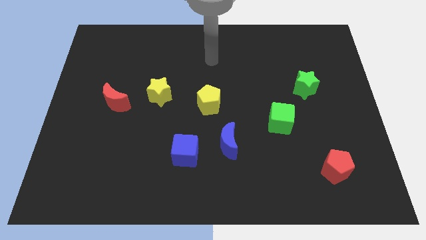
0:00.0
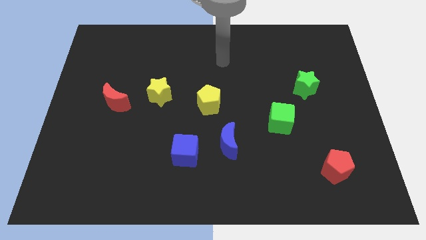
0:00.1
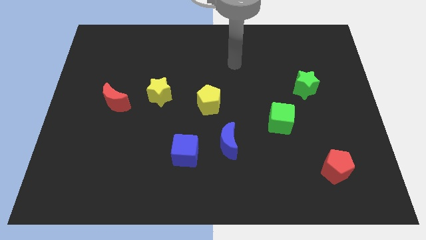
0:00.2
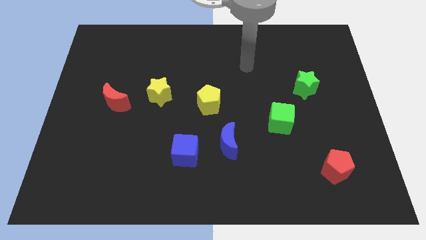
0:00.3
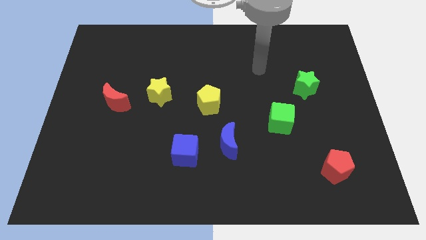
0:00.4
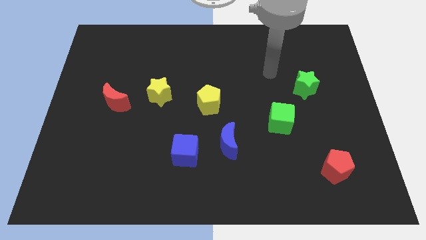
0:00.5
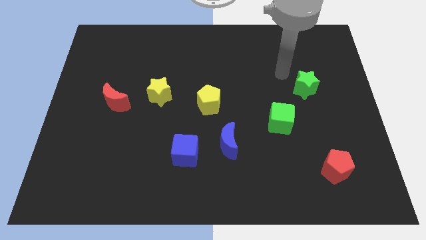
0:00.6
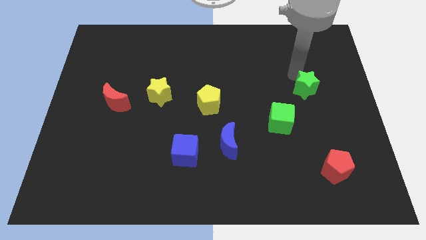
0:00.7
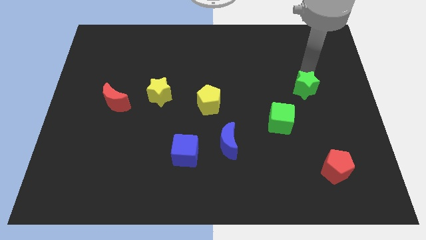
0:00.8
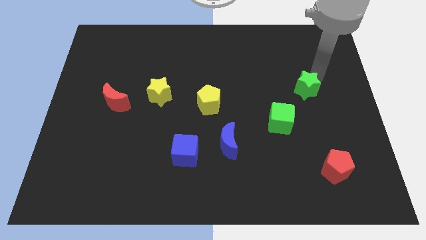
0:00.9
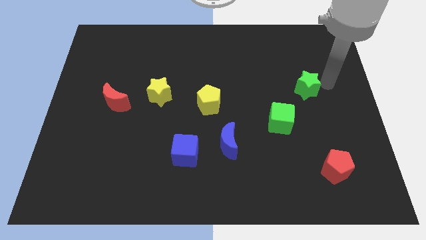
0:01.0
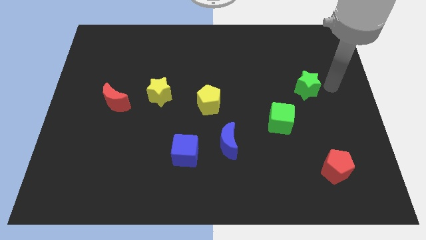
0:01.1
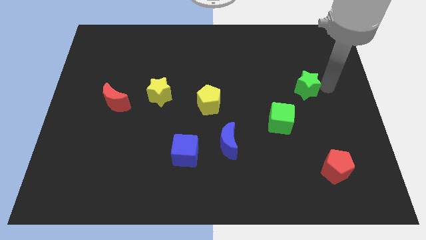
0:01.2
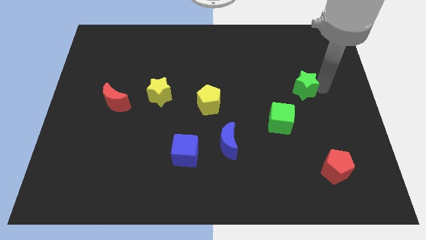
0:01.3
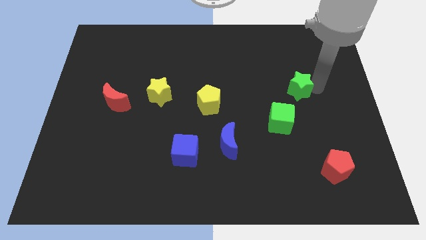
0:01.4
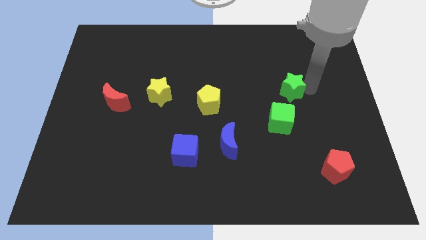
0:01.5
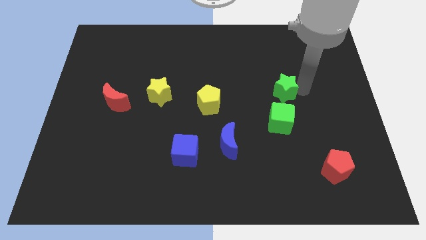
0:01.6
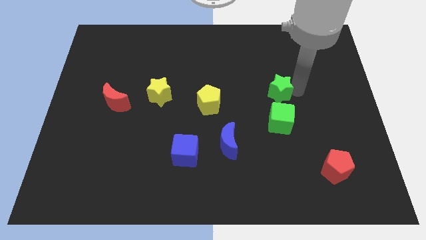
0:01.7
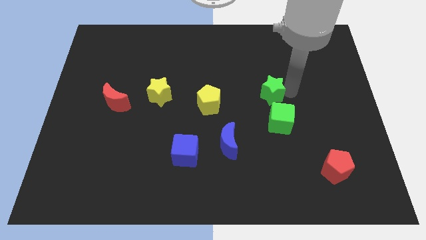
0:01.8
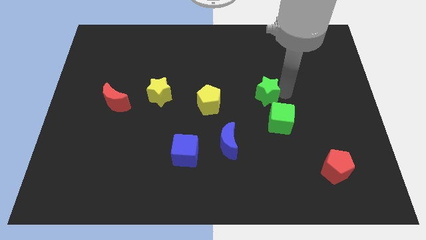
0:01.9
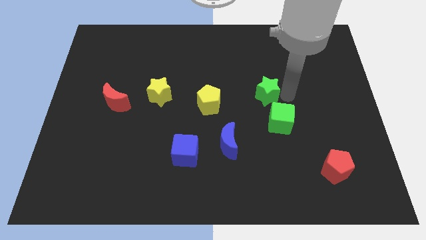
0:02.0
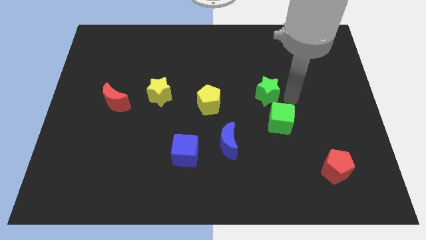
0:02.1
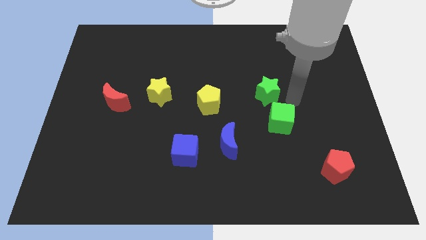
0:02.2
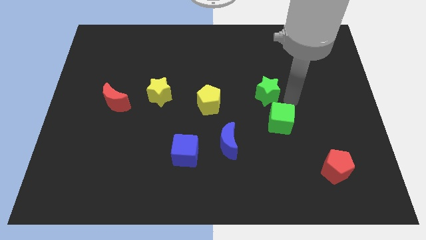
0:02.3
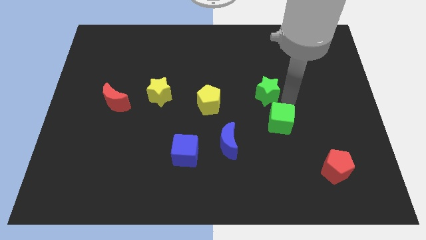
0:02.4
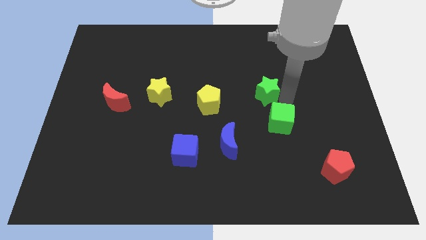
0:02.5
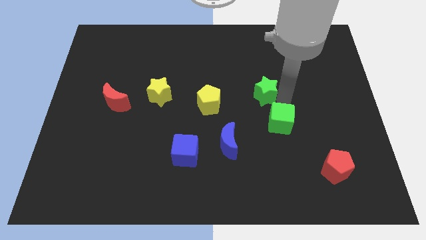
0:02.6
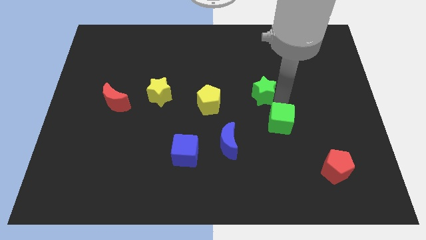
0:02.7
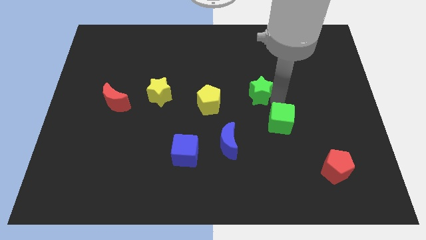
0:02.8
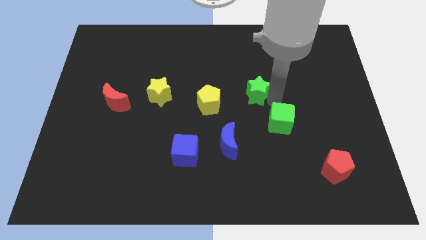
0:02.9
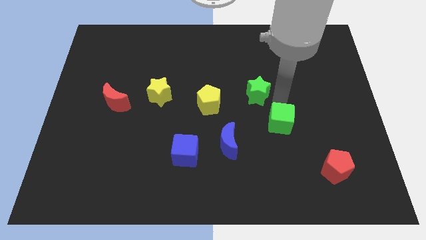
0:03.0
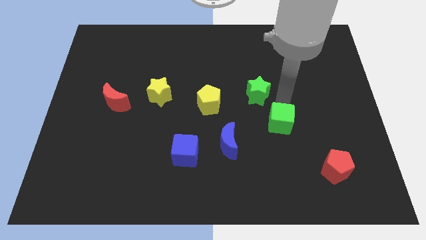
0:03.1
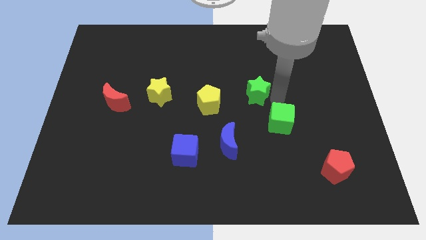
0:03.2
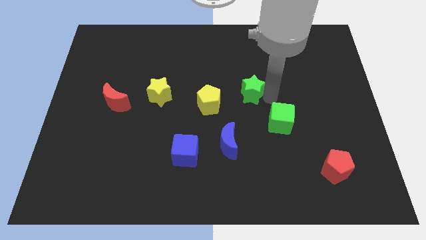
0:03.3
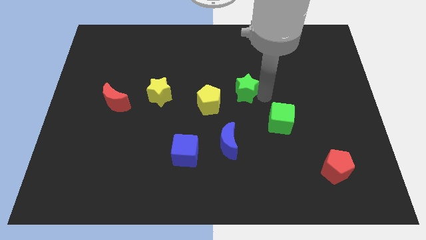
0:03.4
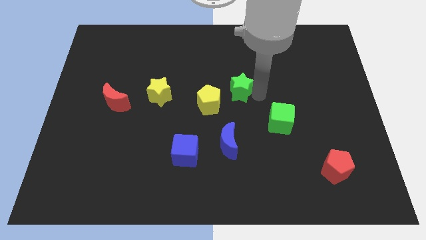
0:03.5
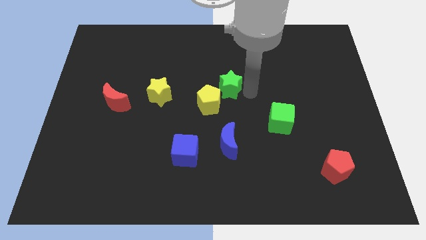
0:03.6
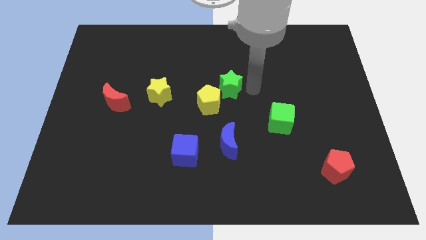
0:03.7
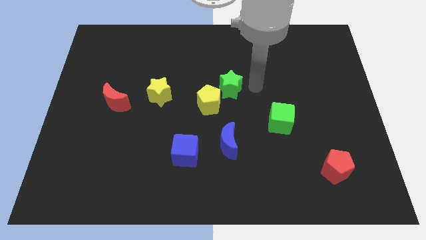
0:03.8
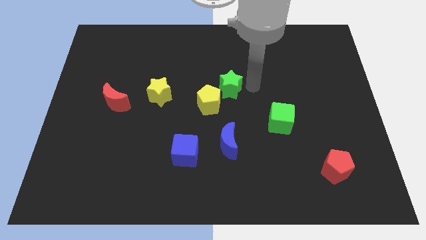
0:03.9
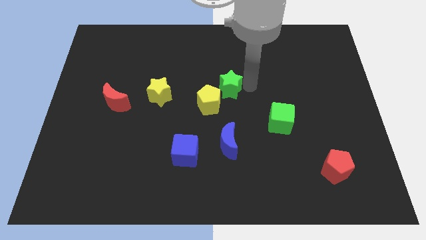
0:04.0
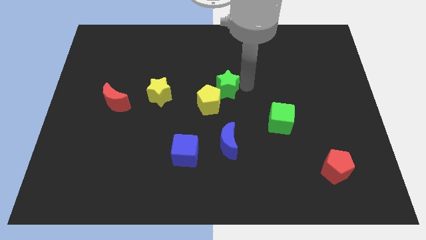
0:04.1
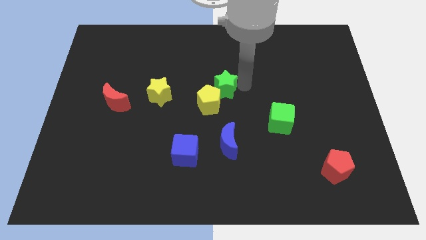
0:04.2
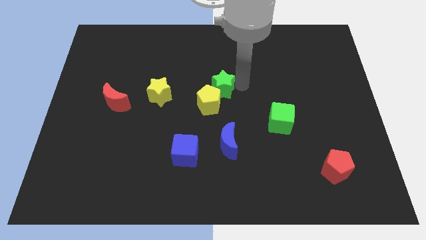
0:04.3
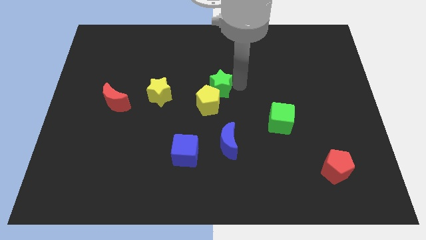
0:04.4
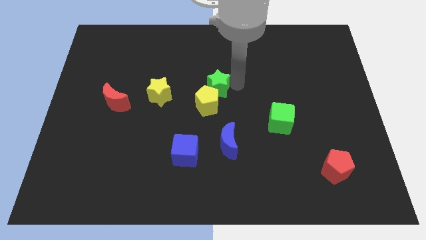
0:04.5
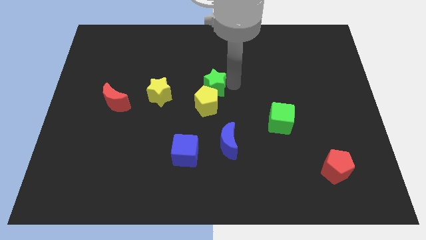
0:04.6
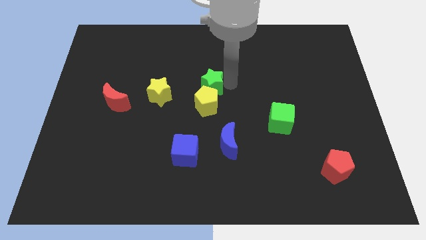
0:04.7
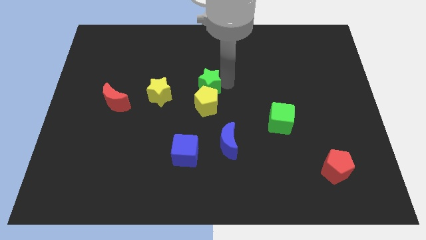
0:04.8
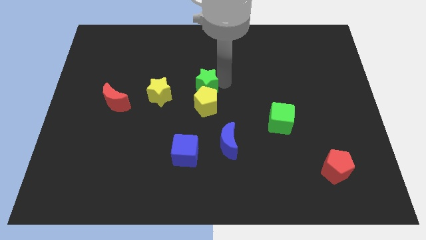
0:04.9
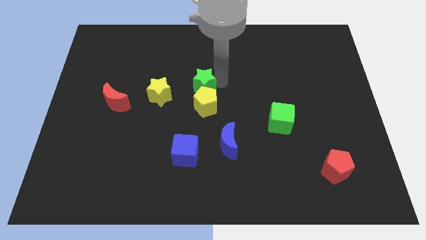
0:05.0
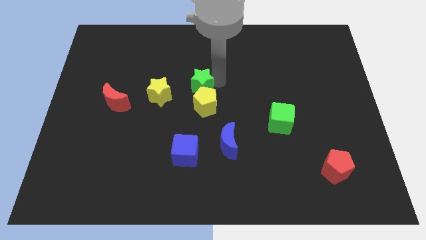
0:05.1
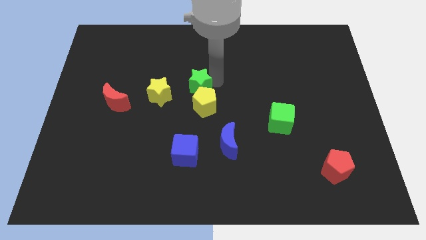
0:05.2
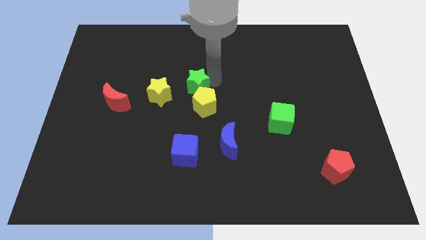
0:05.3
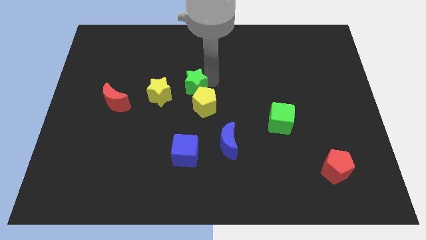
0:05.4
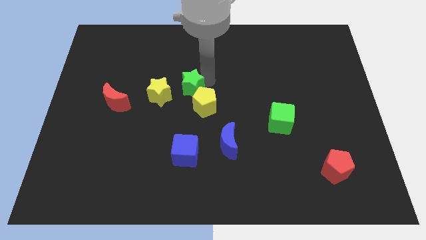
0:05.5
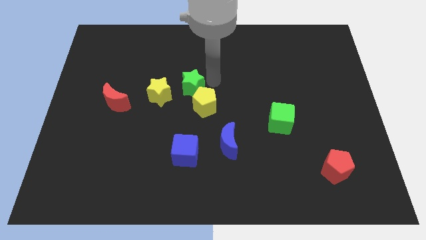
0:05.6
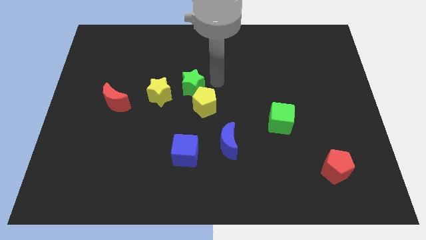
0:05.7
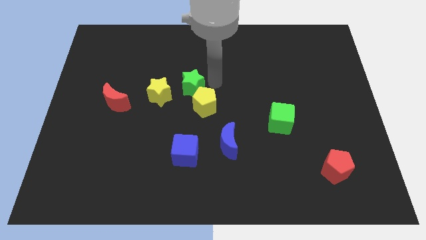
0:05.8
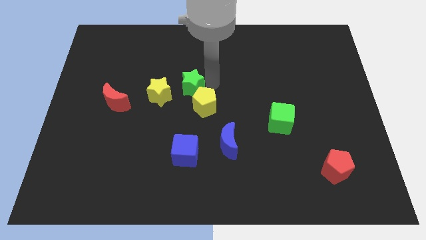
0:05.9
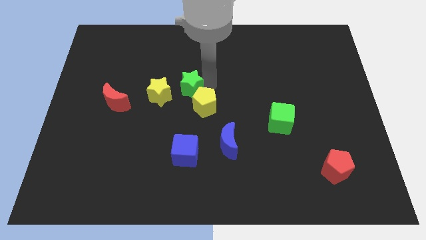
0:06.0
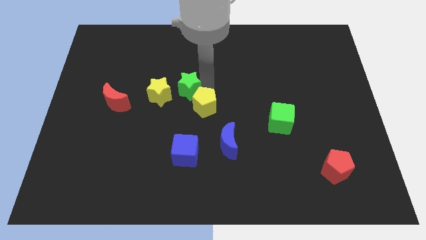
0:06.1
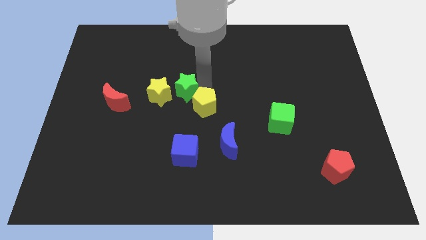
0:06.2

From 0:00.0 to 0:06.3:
push the green star next to the yellow star

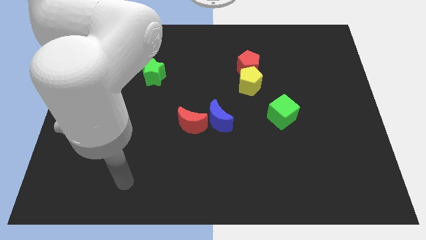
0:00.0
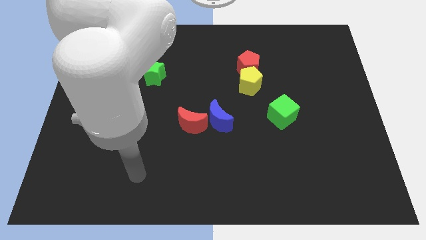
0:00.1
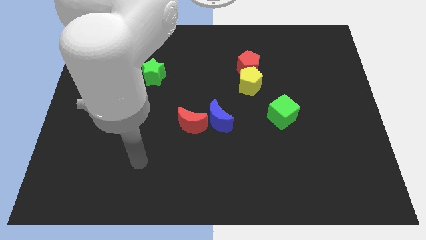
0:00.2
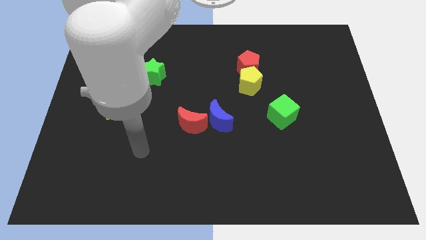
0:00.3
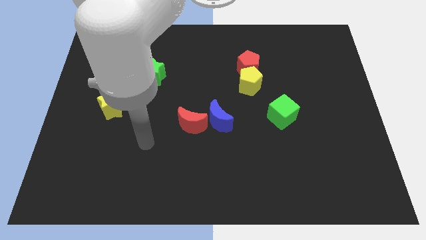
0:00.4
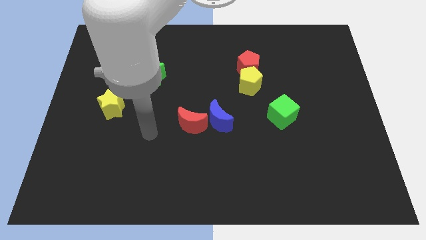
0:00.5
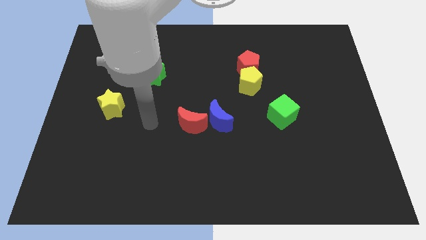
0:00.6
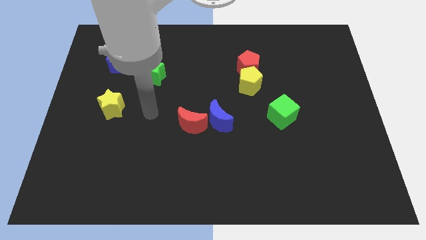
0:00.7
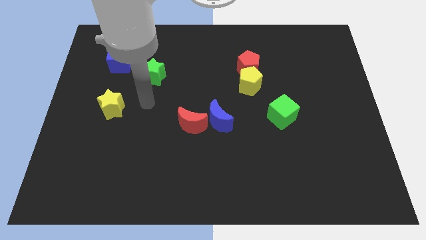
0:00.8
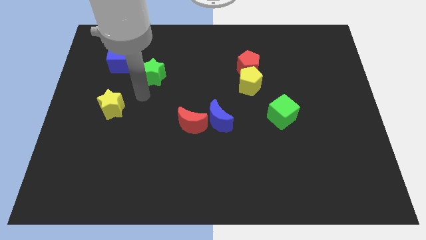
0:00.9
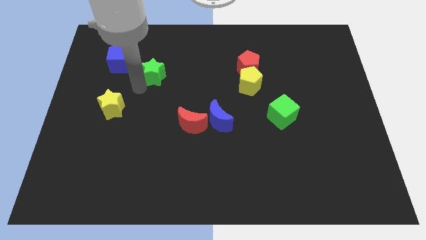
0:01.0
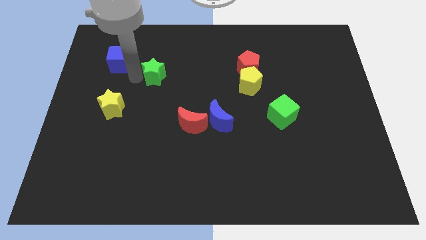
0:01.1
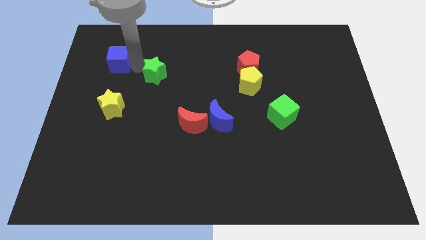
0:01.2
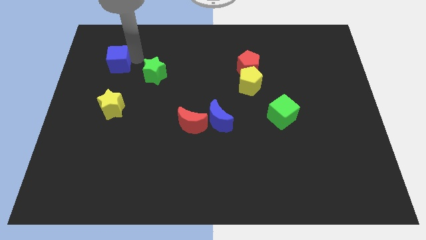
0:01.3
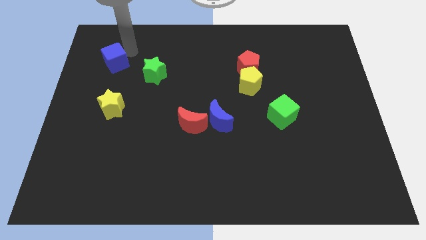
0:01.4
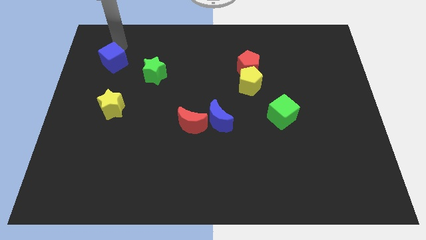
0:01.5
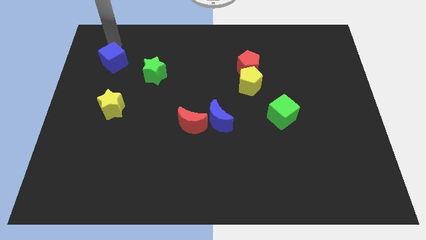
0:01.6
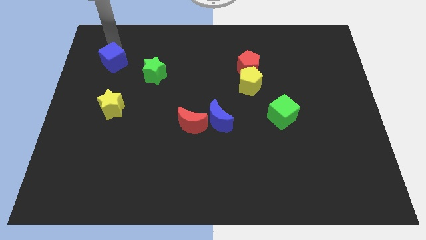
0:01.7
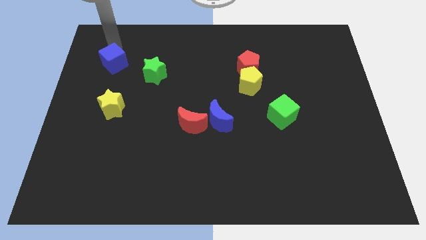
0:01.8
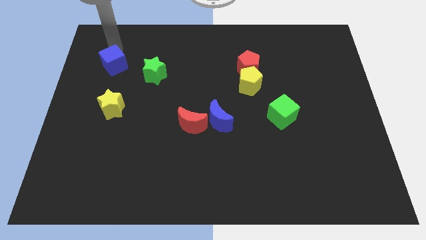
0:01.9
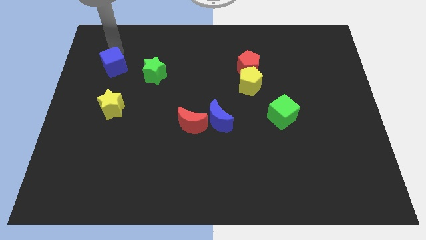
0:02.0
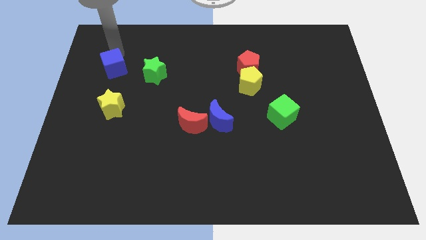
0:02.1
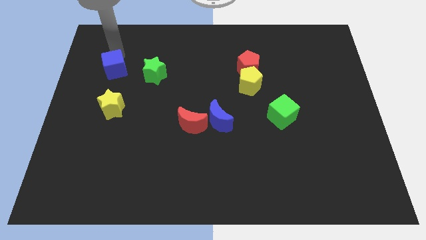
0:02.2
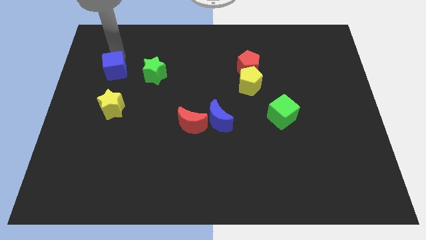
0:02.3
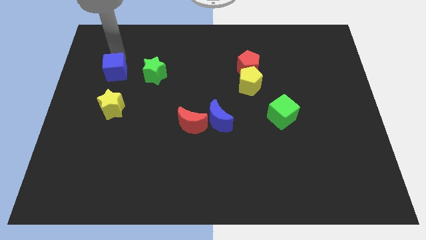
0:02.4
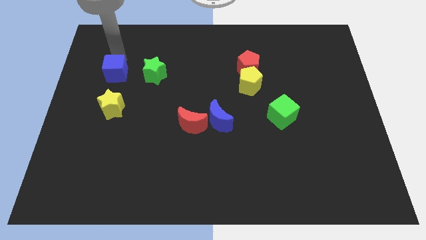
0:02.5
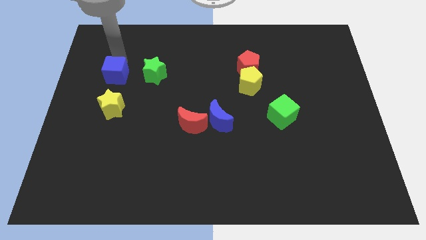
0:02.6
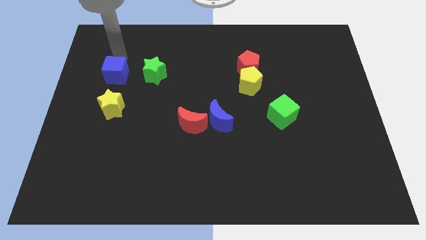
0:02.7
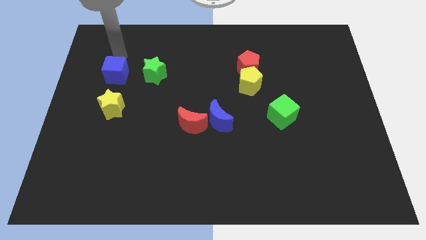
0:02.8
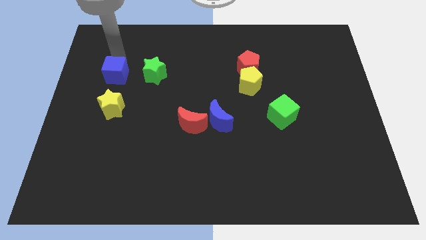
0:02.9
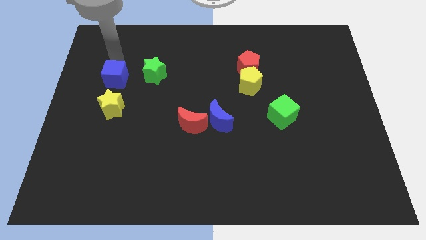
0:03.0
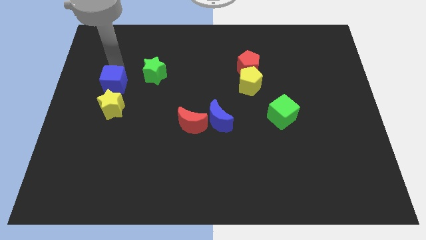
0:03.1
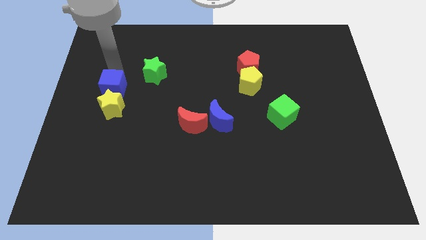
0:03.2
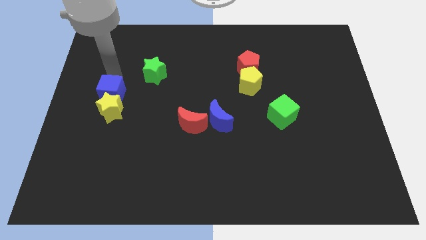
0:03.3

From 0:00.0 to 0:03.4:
put the blue cube towards the yellow star
